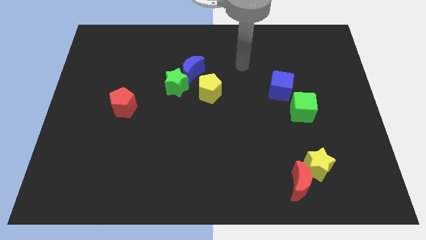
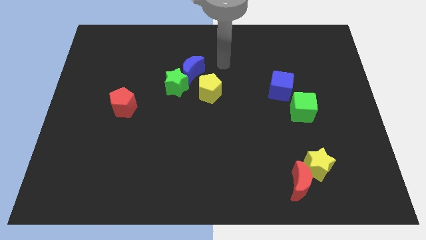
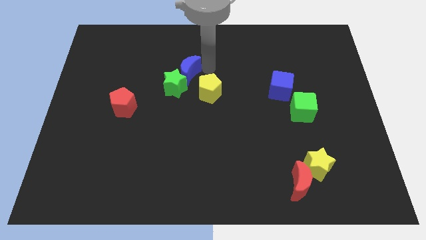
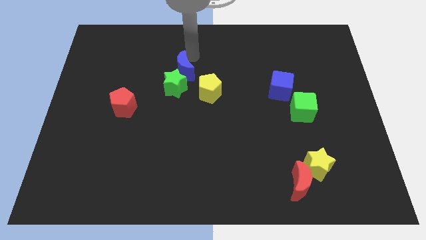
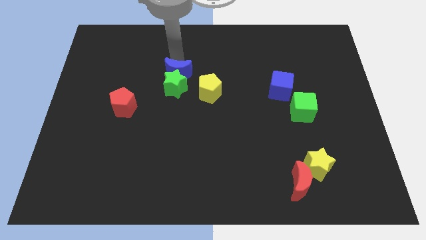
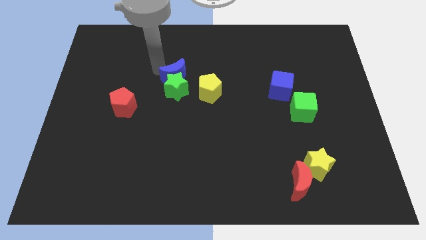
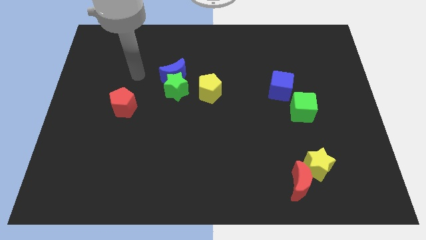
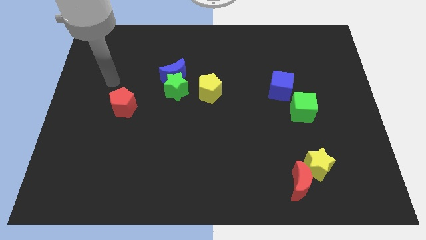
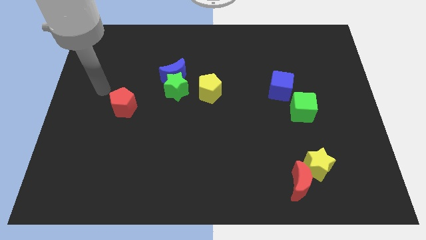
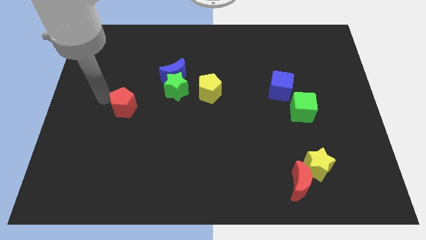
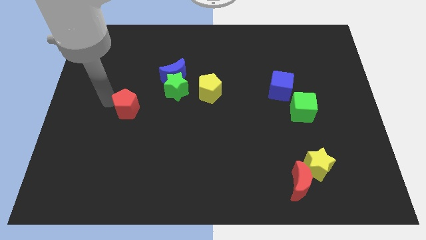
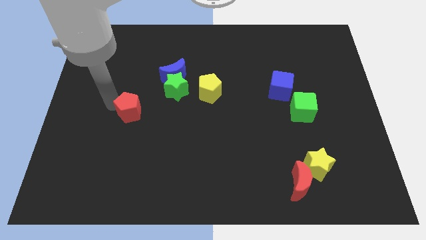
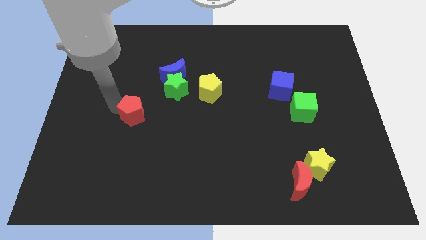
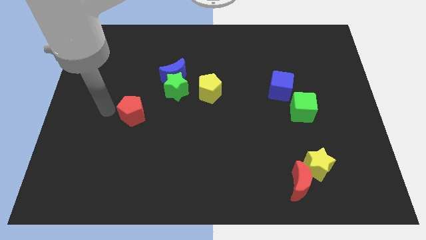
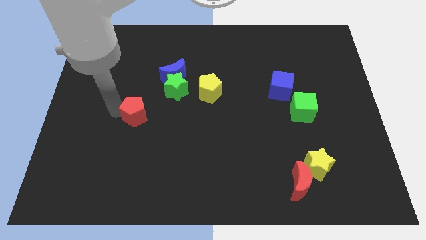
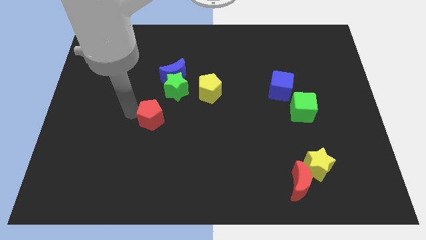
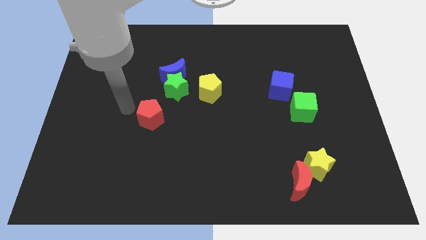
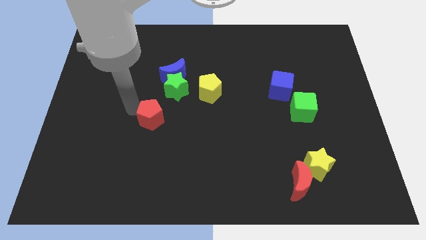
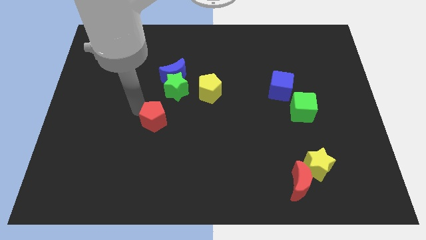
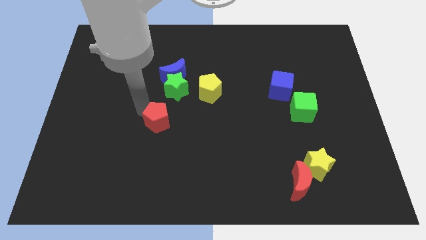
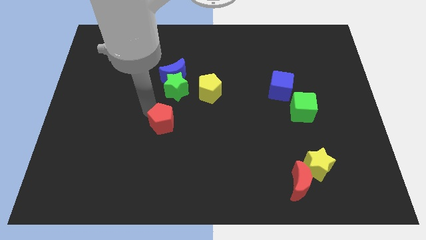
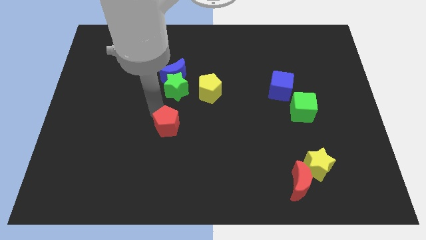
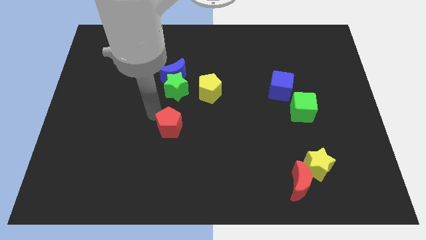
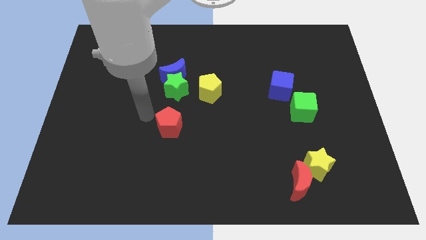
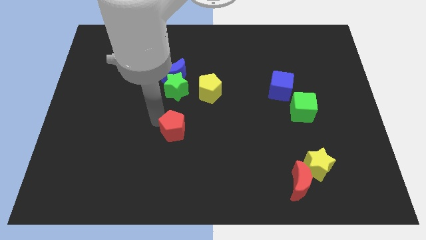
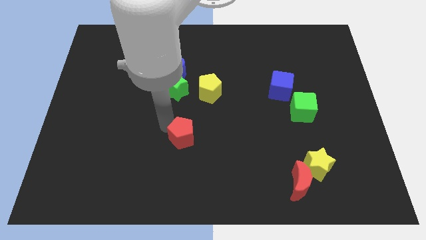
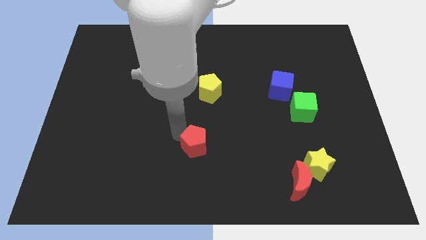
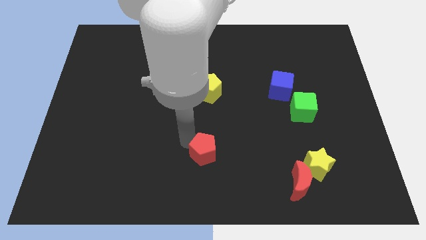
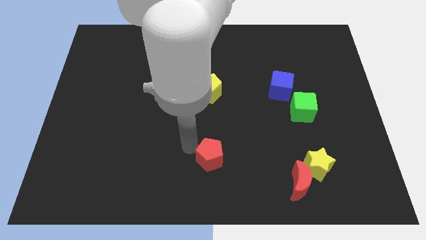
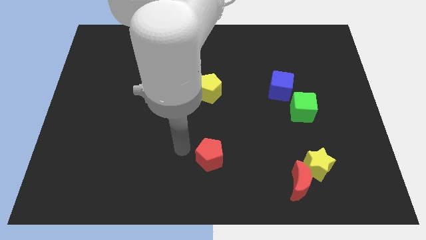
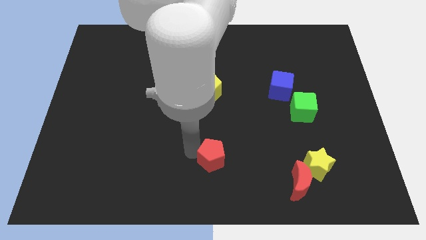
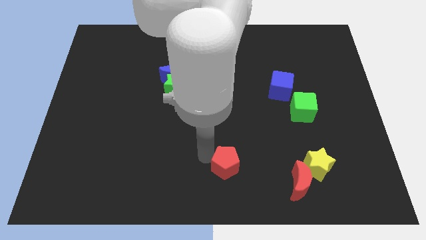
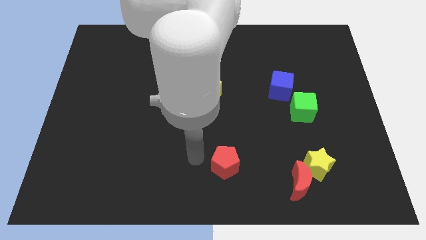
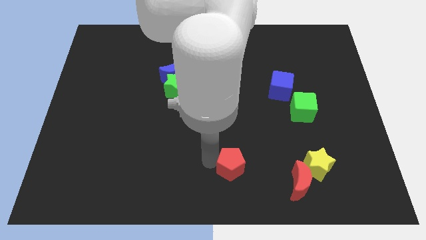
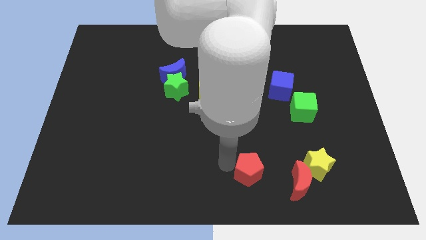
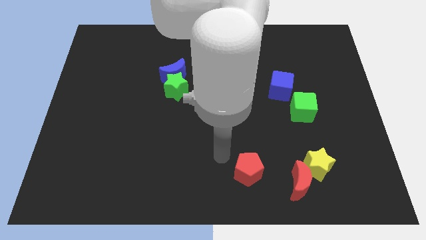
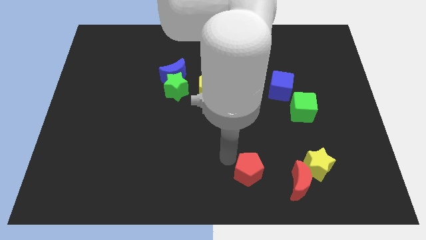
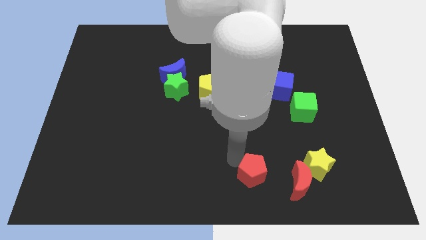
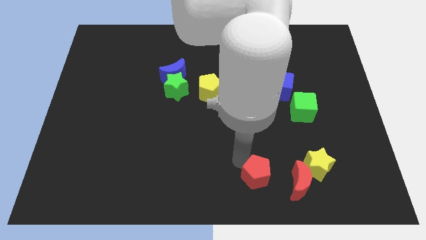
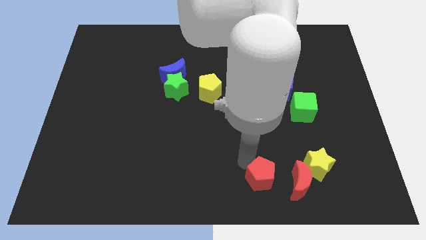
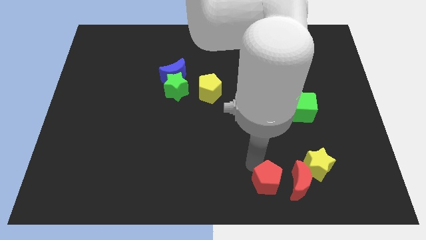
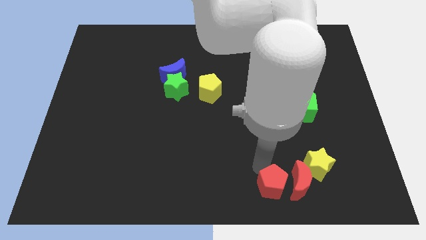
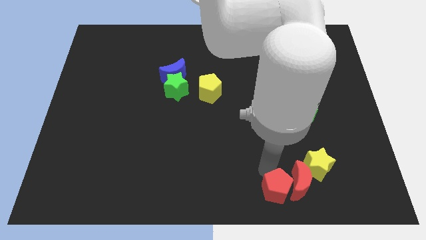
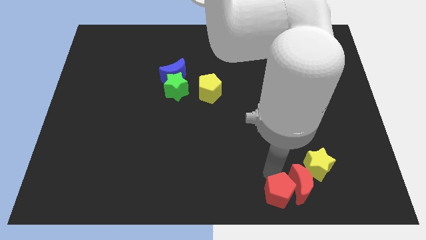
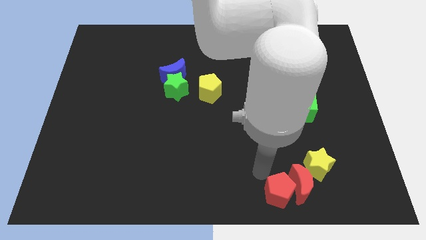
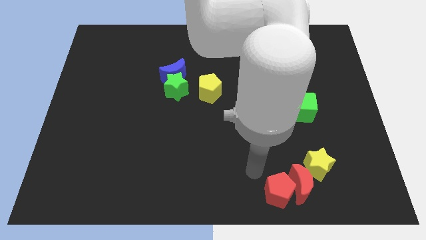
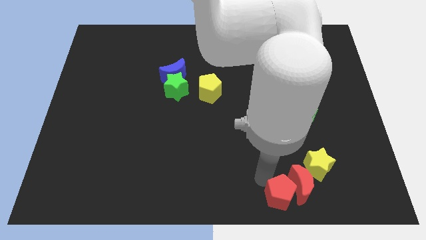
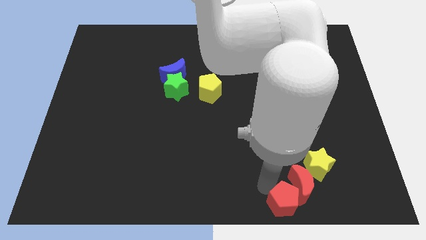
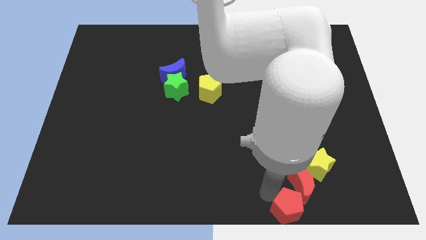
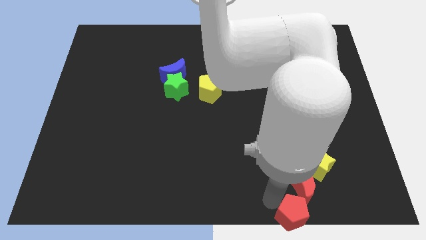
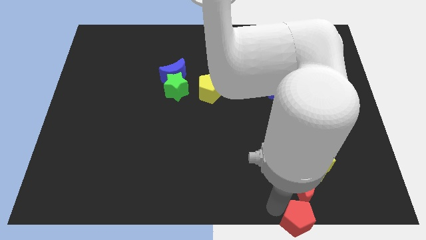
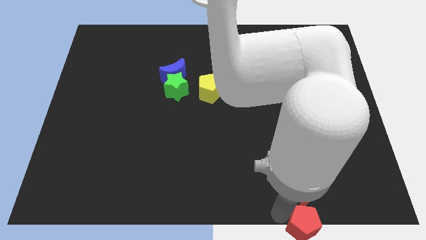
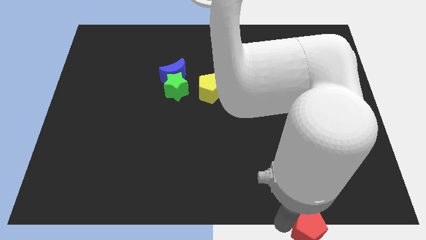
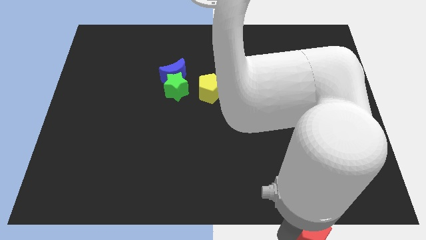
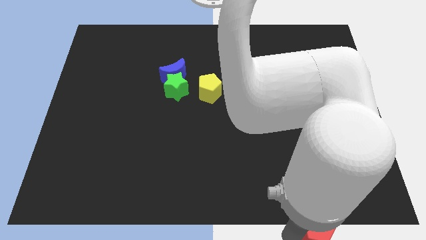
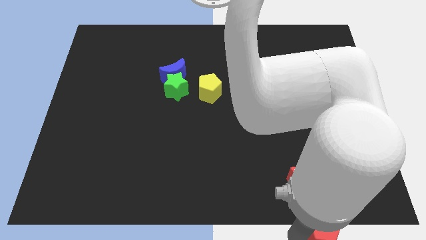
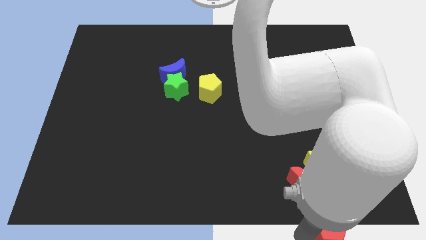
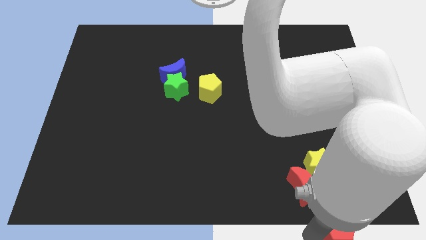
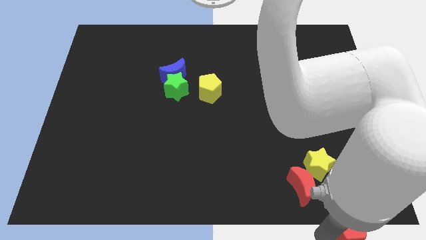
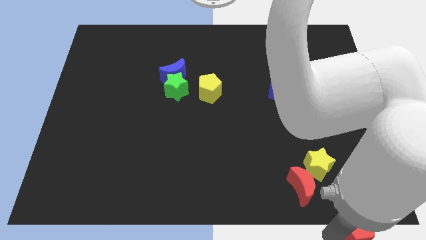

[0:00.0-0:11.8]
slide the red pentagon to the lower right corner

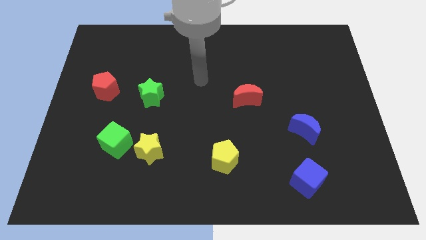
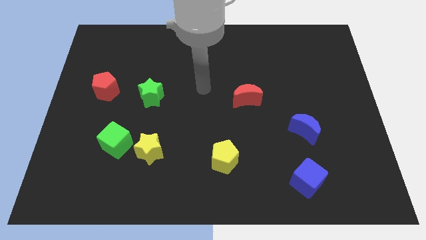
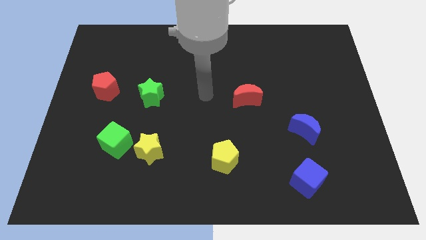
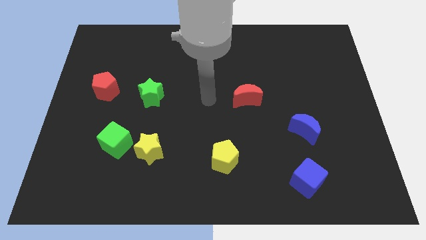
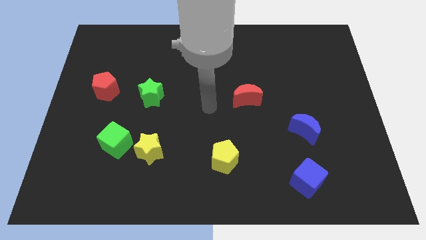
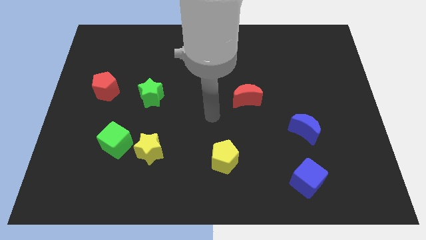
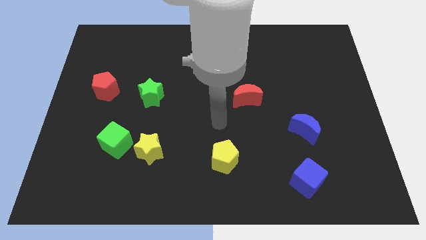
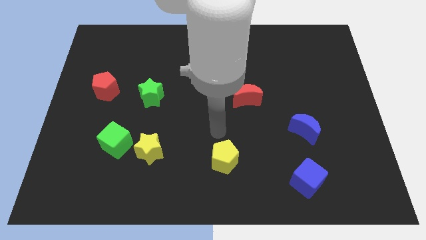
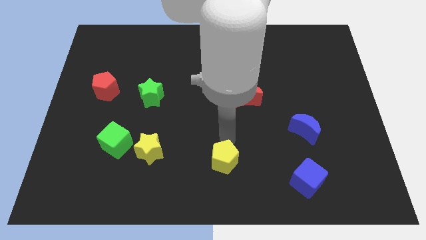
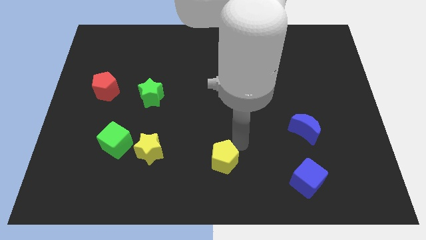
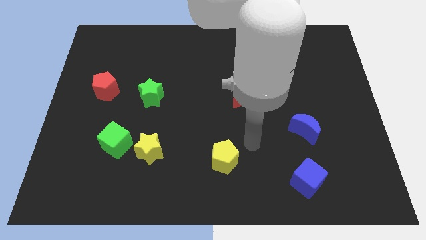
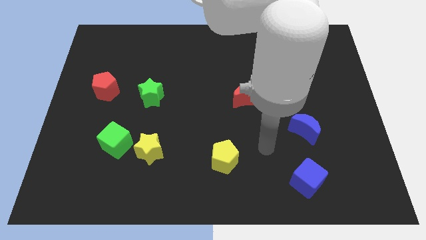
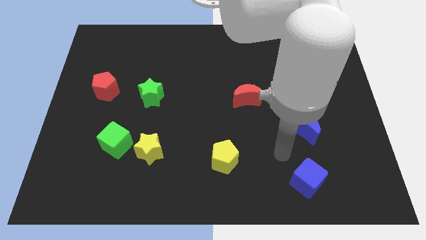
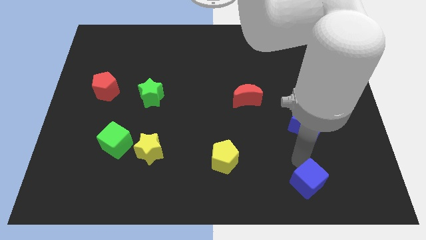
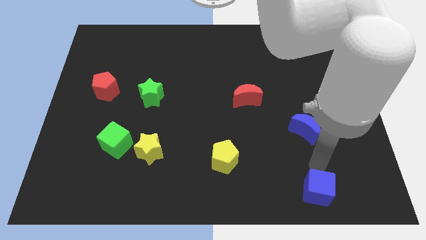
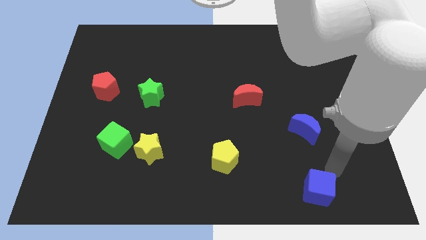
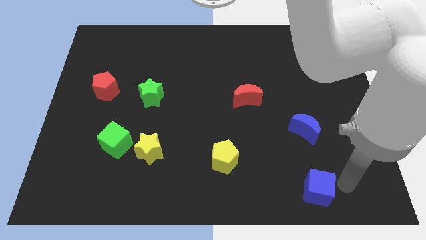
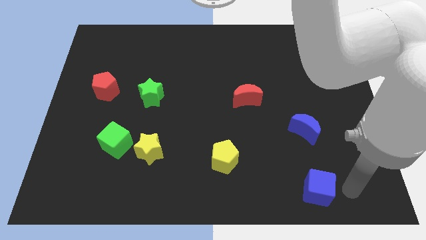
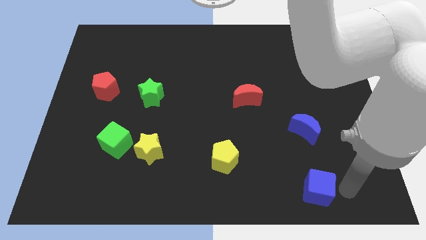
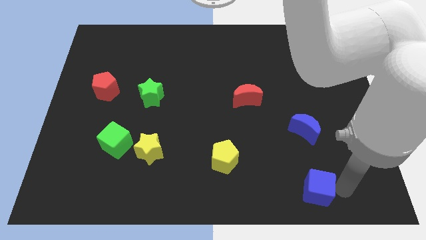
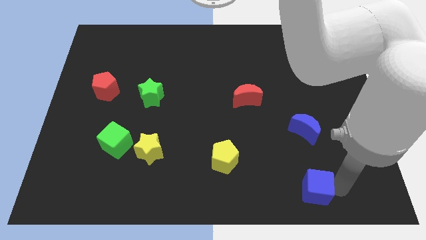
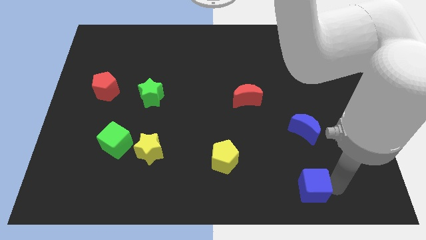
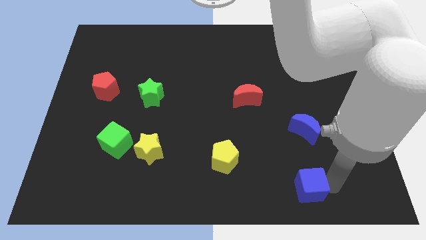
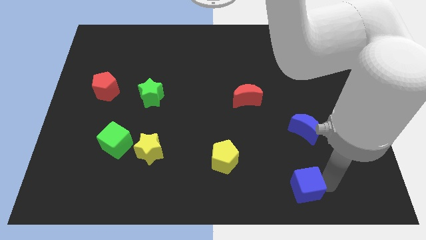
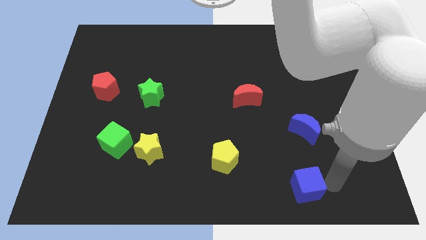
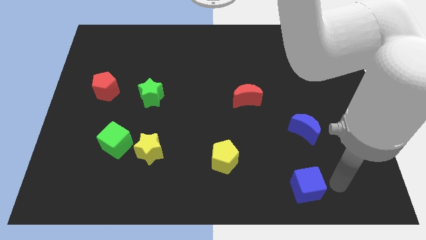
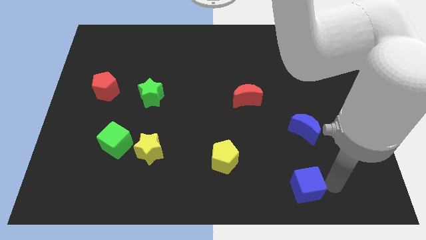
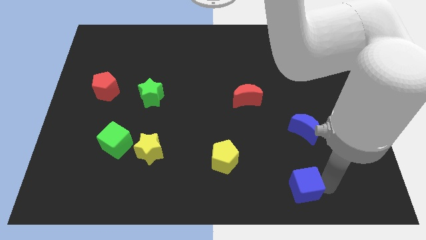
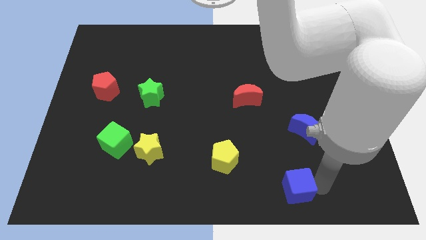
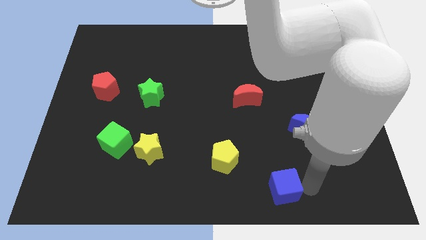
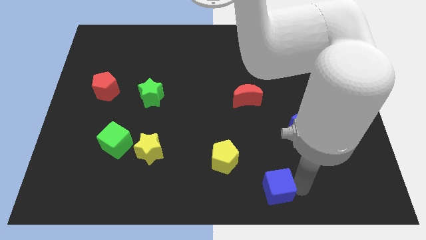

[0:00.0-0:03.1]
push the blue cube to the bottom
